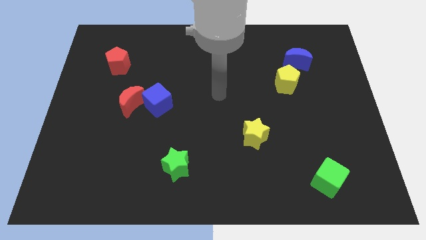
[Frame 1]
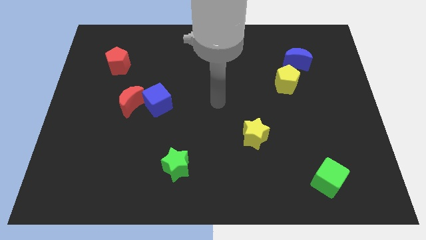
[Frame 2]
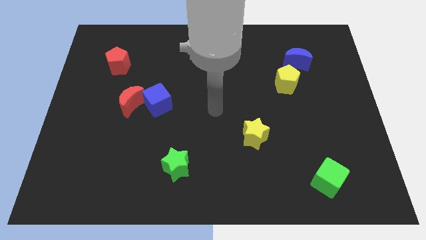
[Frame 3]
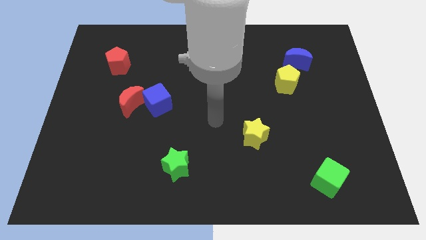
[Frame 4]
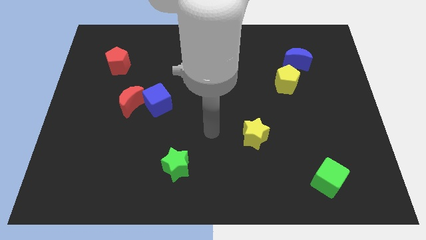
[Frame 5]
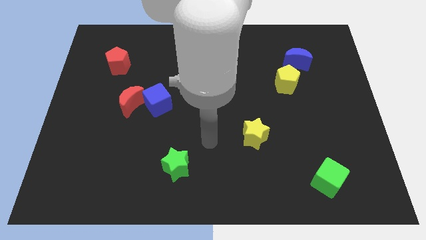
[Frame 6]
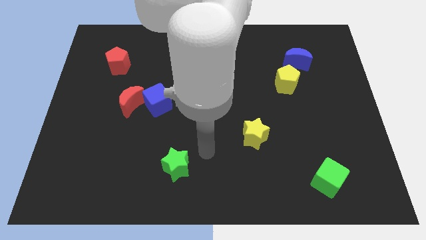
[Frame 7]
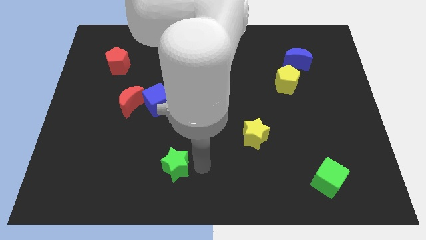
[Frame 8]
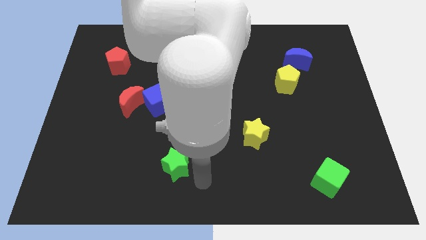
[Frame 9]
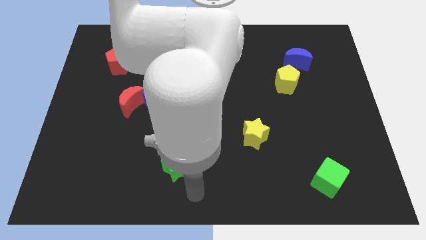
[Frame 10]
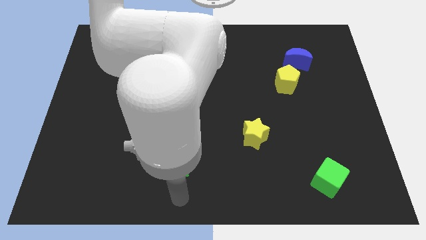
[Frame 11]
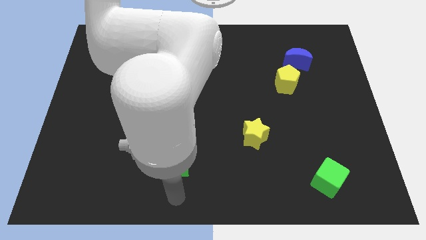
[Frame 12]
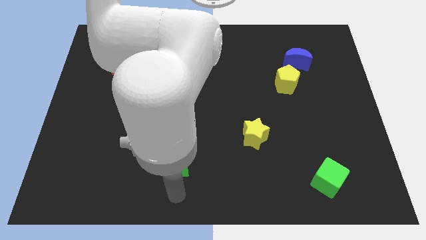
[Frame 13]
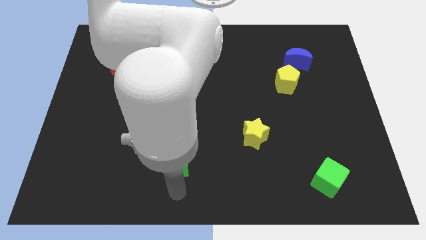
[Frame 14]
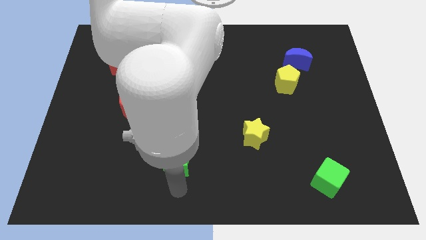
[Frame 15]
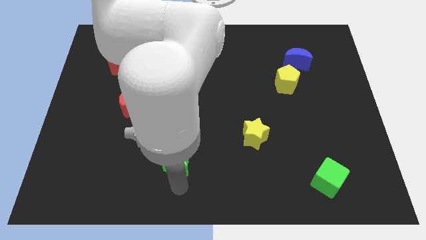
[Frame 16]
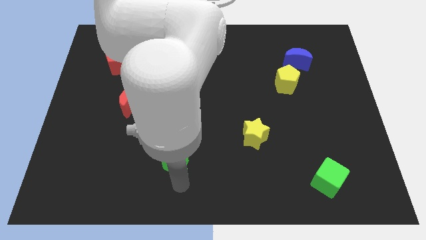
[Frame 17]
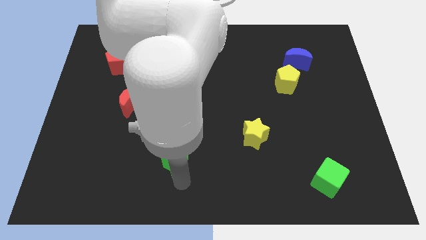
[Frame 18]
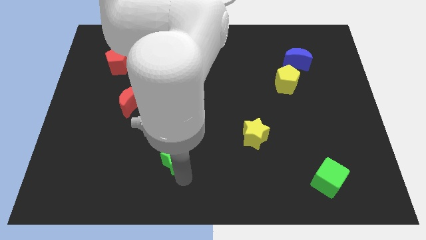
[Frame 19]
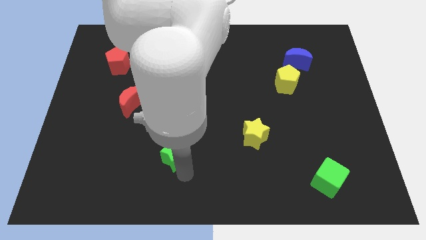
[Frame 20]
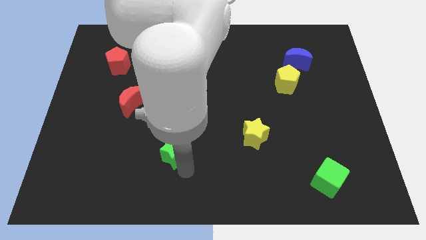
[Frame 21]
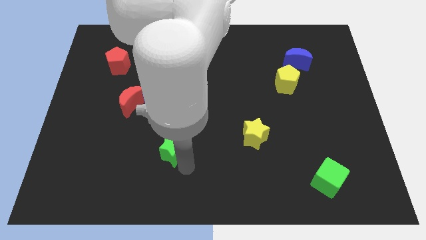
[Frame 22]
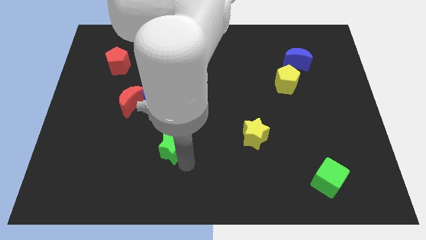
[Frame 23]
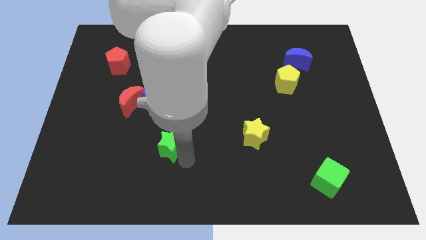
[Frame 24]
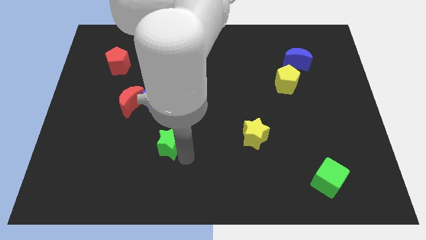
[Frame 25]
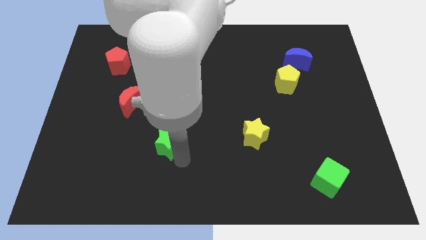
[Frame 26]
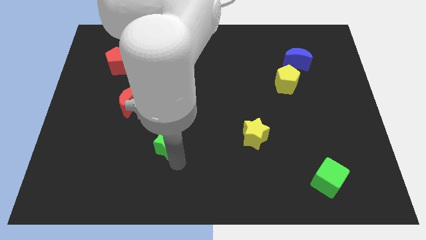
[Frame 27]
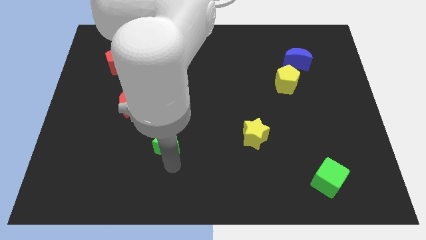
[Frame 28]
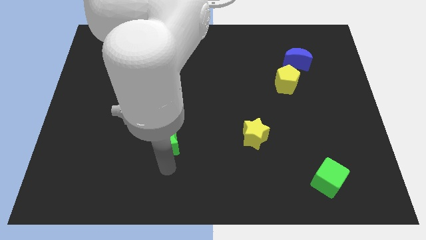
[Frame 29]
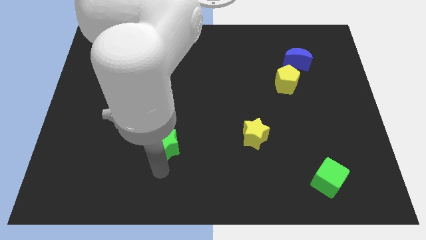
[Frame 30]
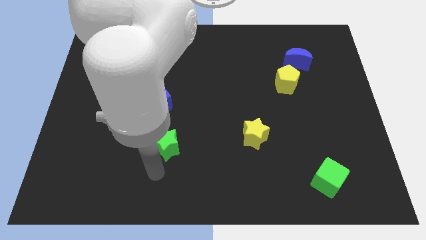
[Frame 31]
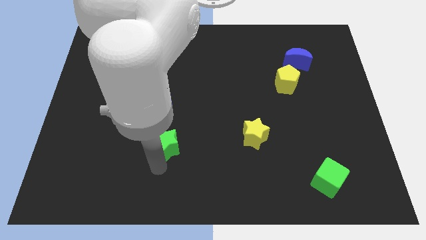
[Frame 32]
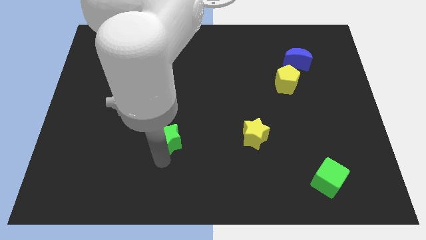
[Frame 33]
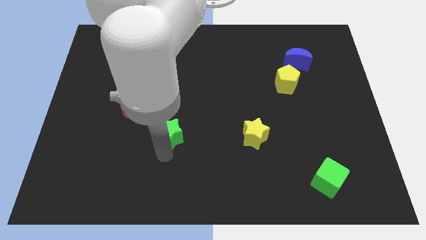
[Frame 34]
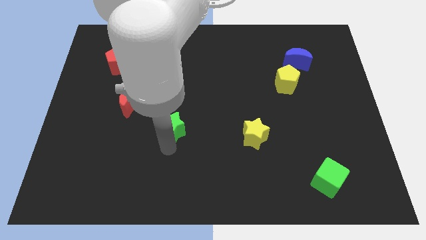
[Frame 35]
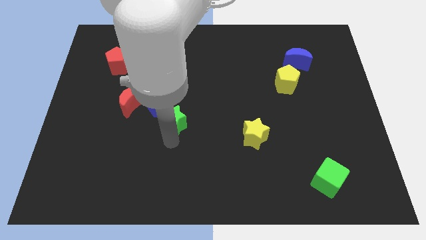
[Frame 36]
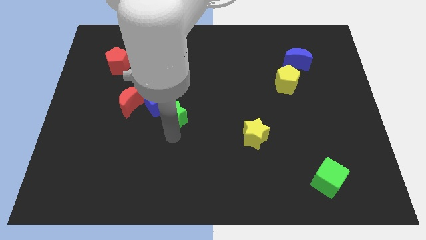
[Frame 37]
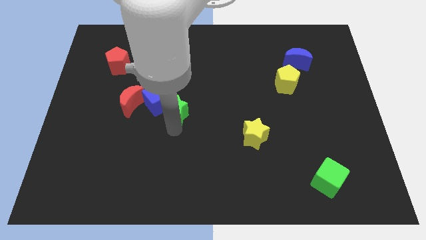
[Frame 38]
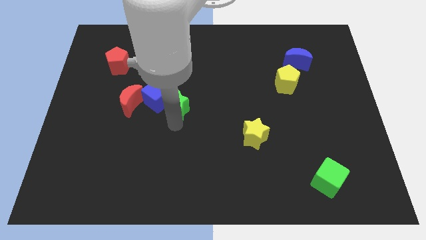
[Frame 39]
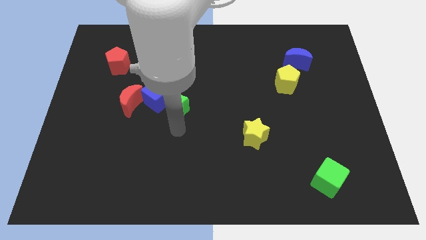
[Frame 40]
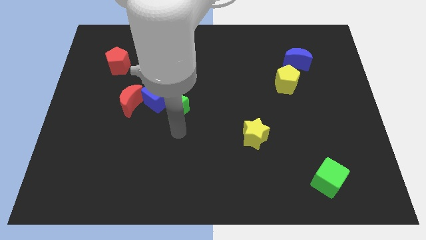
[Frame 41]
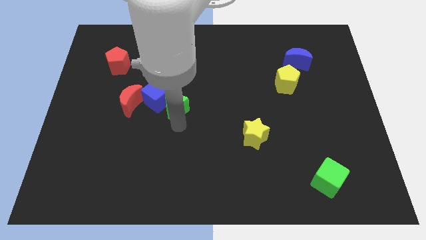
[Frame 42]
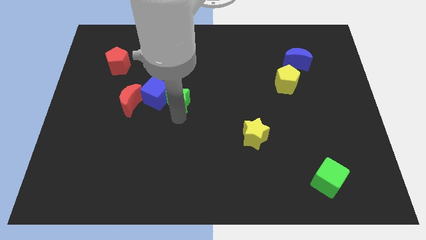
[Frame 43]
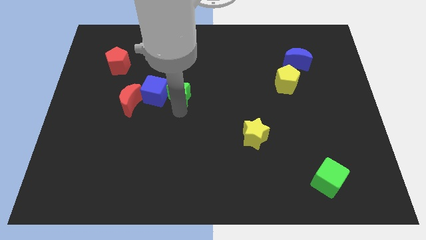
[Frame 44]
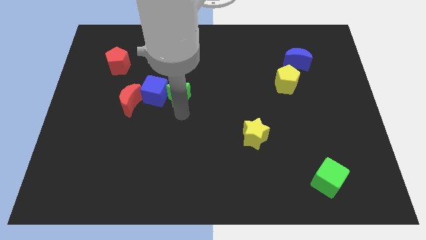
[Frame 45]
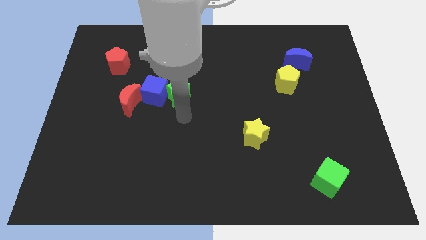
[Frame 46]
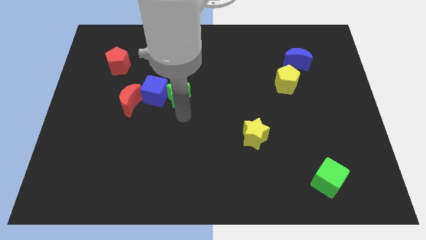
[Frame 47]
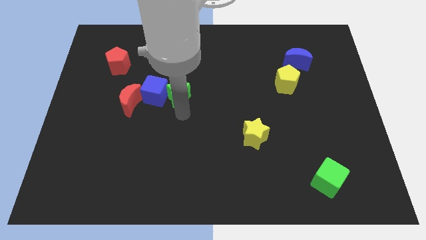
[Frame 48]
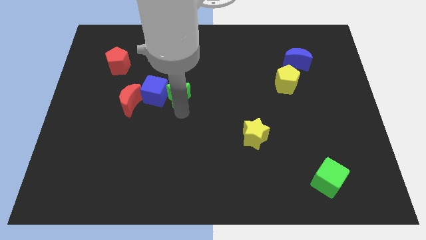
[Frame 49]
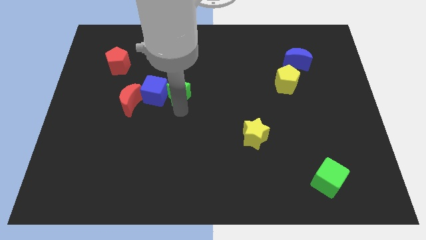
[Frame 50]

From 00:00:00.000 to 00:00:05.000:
move the green star upwards

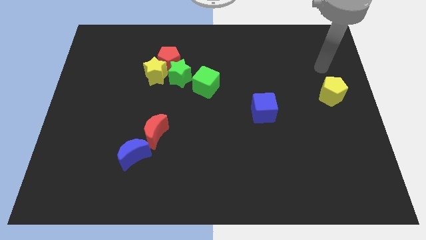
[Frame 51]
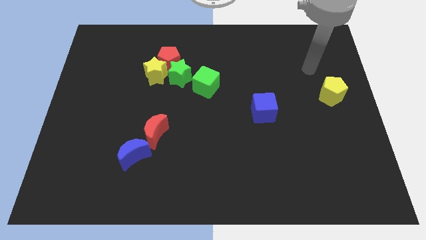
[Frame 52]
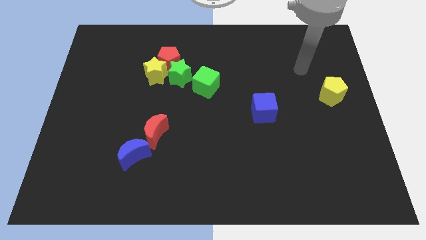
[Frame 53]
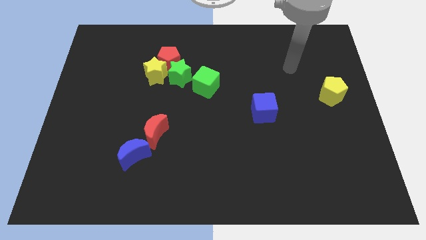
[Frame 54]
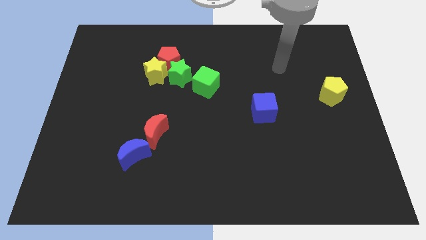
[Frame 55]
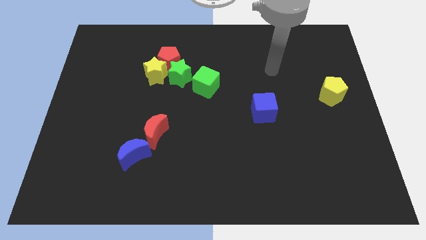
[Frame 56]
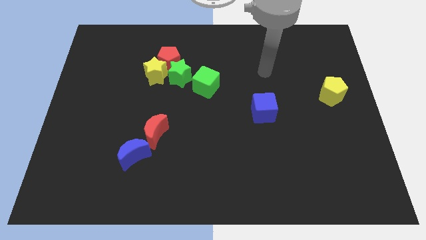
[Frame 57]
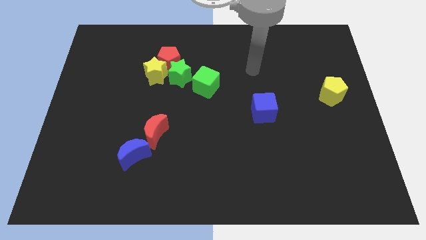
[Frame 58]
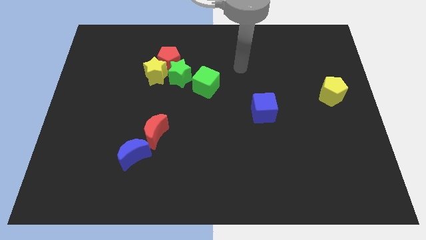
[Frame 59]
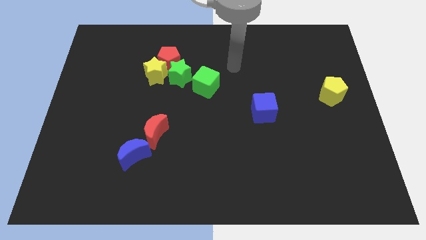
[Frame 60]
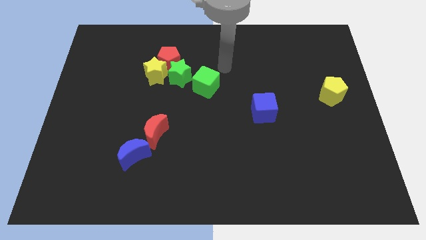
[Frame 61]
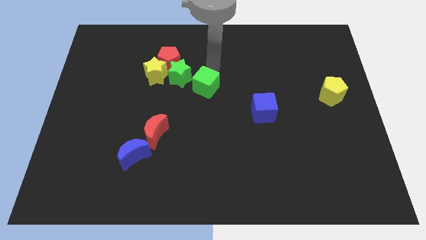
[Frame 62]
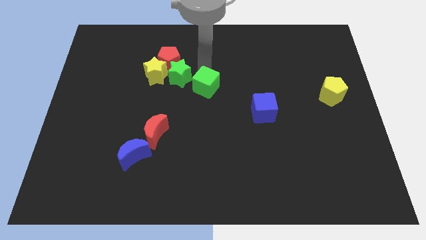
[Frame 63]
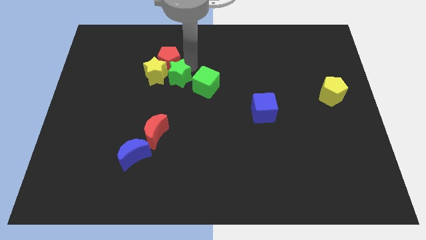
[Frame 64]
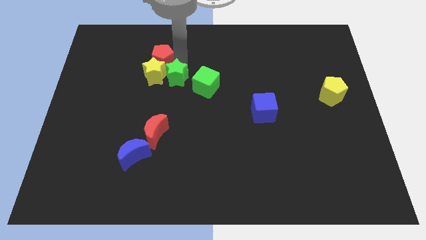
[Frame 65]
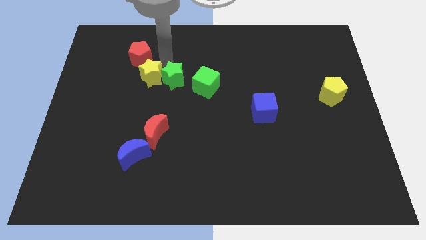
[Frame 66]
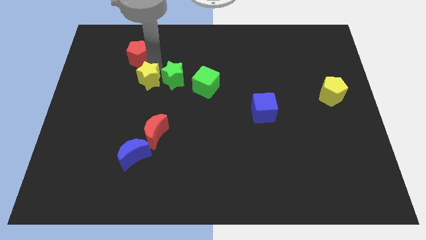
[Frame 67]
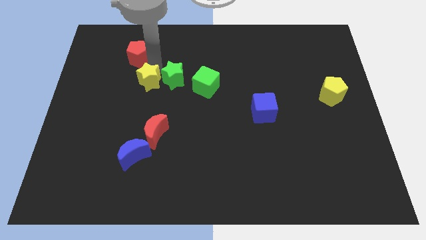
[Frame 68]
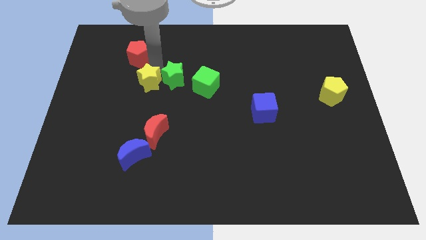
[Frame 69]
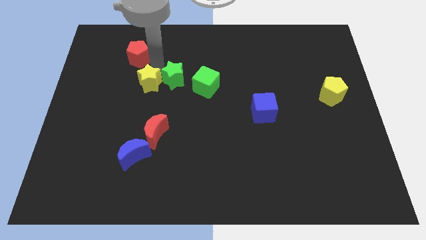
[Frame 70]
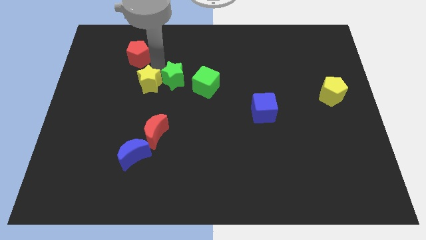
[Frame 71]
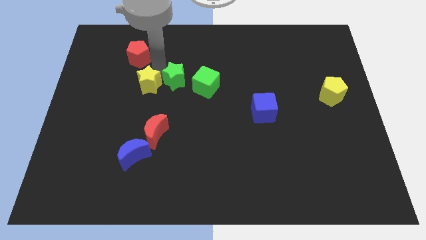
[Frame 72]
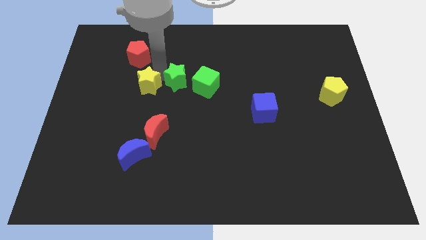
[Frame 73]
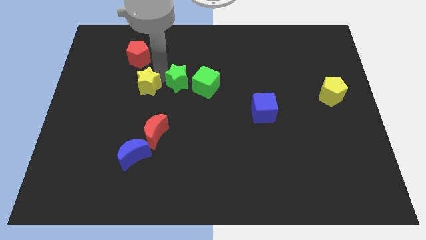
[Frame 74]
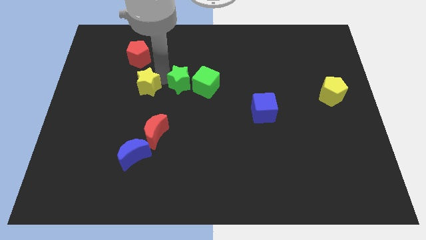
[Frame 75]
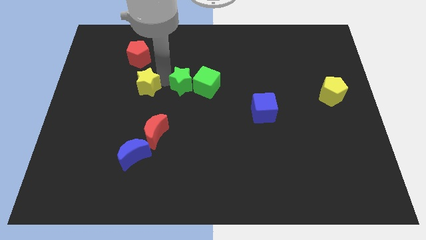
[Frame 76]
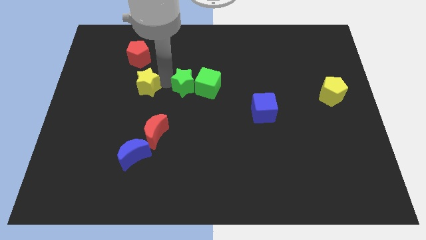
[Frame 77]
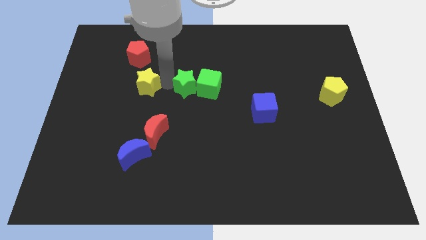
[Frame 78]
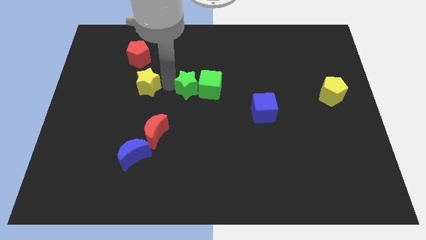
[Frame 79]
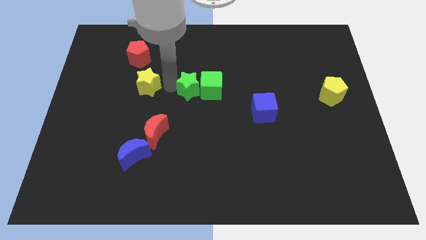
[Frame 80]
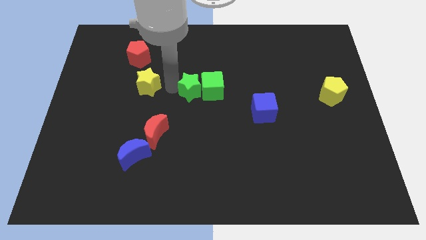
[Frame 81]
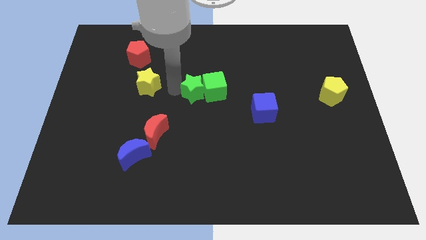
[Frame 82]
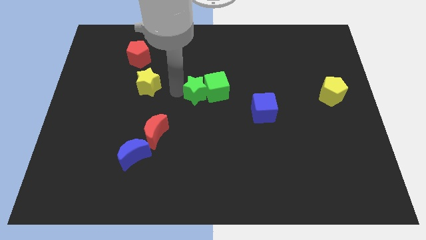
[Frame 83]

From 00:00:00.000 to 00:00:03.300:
push the green star down and right diagonally slightly
